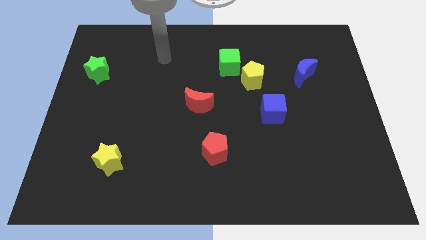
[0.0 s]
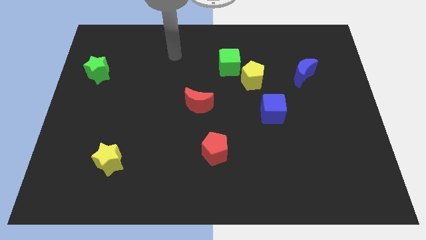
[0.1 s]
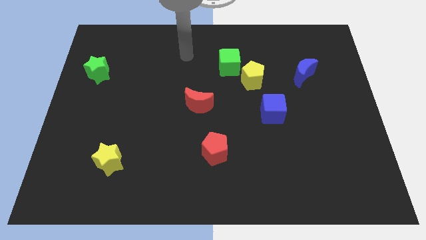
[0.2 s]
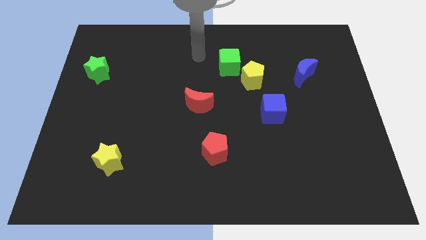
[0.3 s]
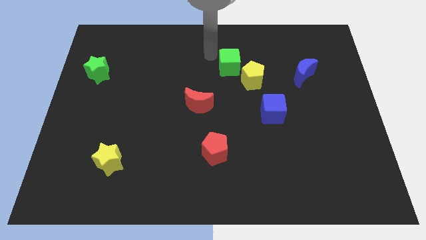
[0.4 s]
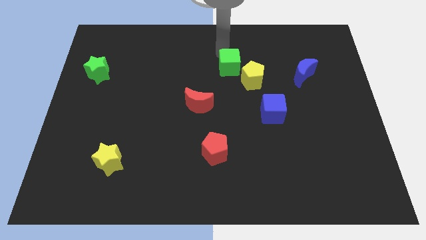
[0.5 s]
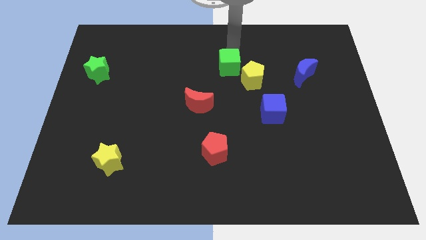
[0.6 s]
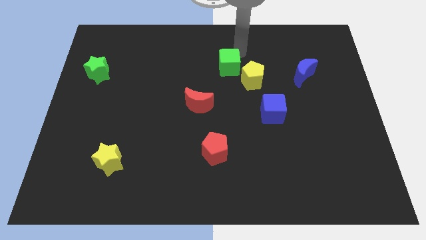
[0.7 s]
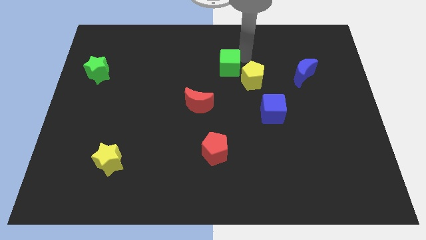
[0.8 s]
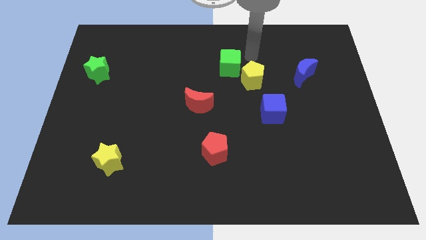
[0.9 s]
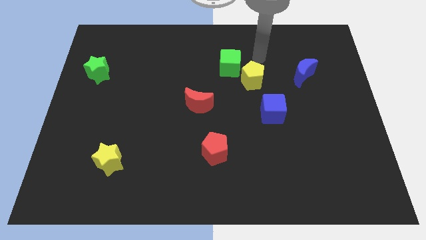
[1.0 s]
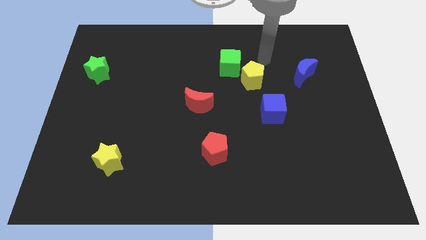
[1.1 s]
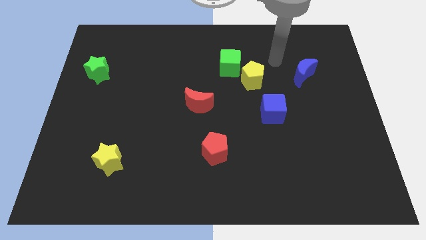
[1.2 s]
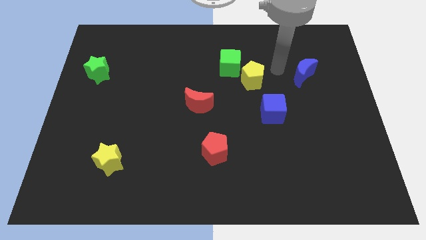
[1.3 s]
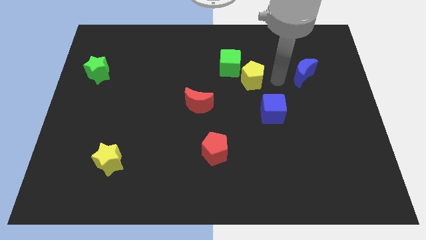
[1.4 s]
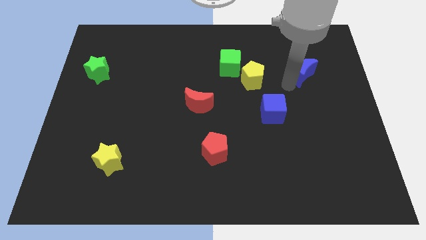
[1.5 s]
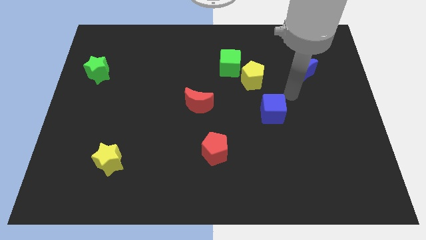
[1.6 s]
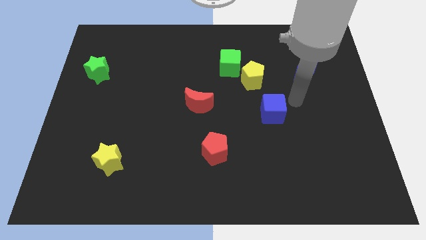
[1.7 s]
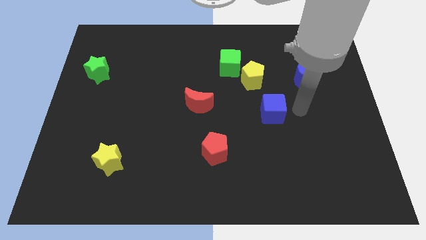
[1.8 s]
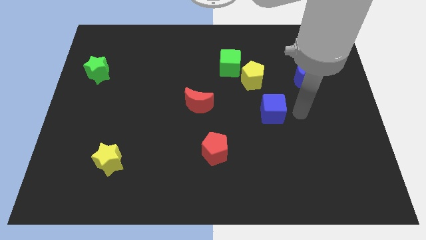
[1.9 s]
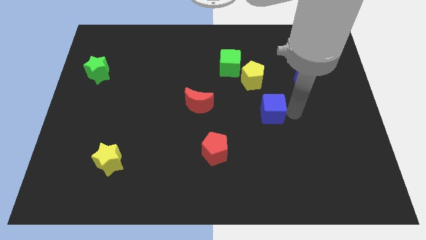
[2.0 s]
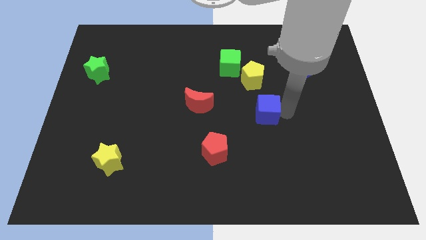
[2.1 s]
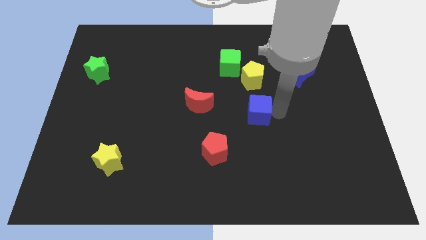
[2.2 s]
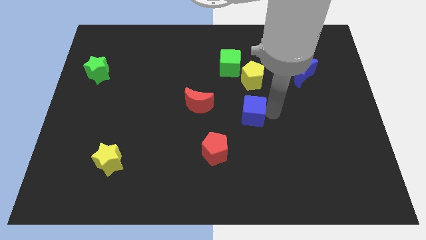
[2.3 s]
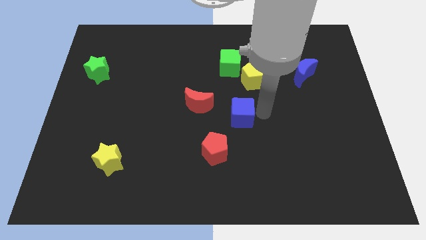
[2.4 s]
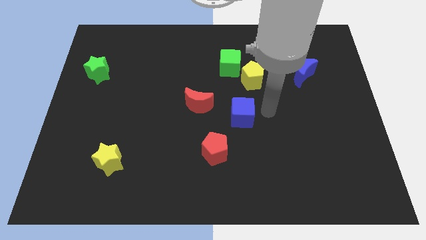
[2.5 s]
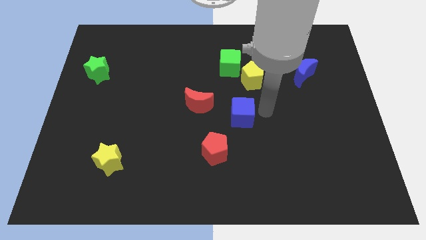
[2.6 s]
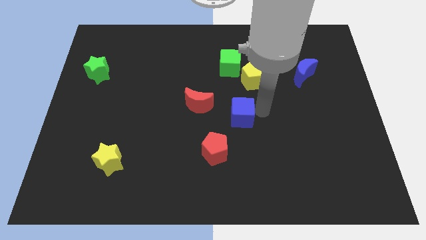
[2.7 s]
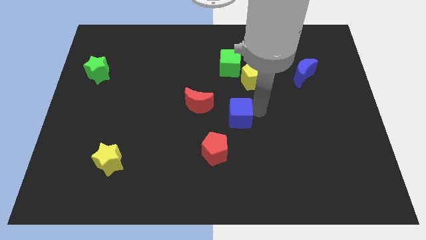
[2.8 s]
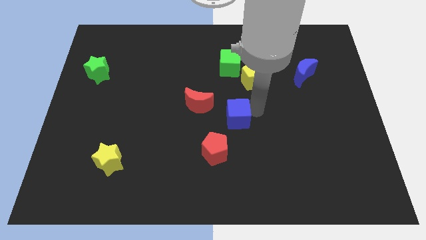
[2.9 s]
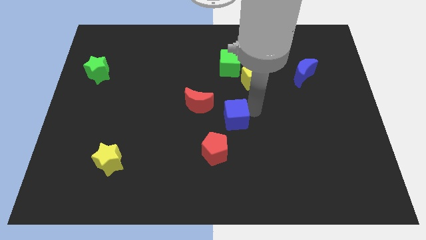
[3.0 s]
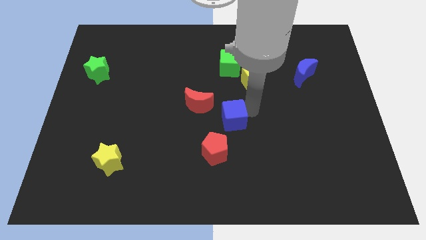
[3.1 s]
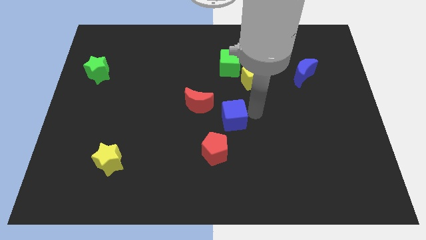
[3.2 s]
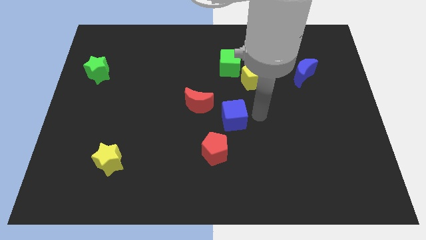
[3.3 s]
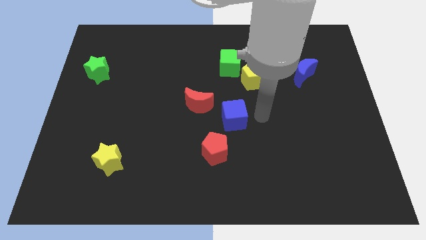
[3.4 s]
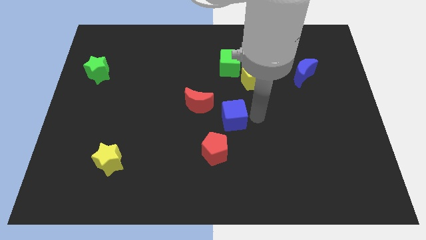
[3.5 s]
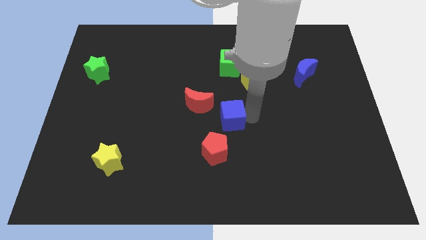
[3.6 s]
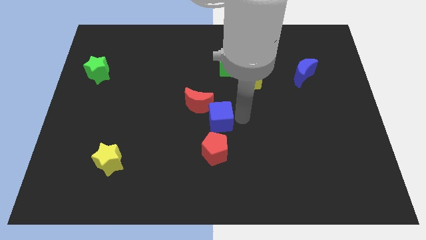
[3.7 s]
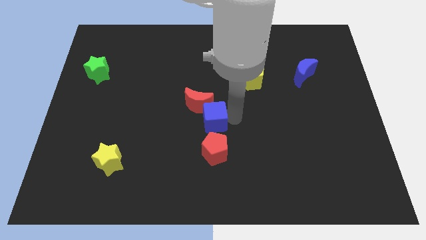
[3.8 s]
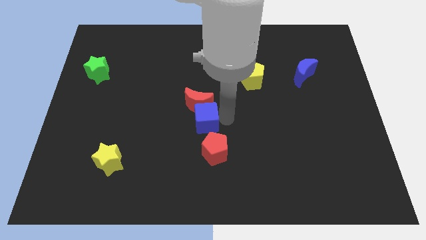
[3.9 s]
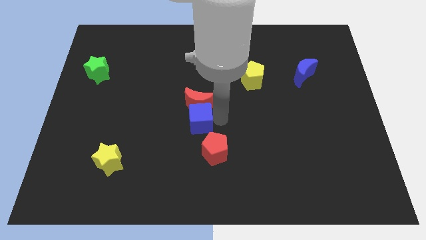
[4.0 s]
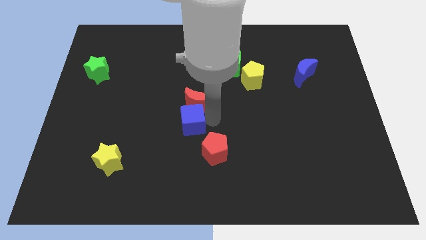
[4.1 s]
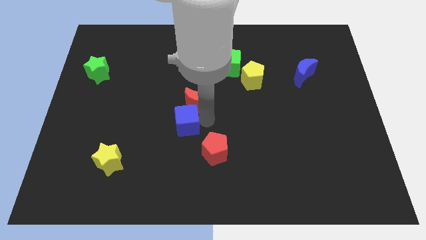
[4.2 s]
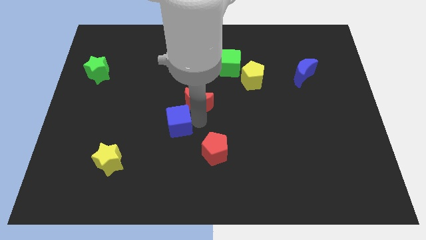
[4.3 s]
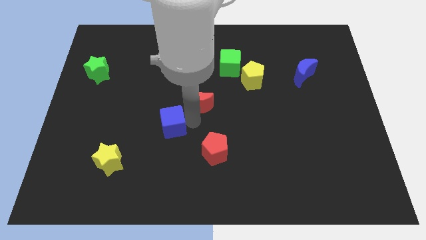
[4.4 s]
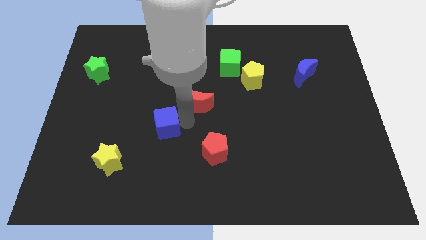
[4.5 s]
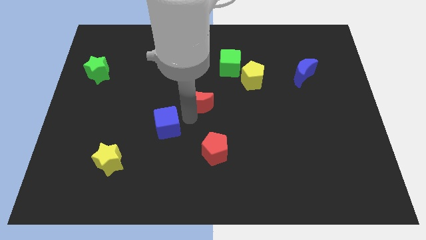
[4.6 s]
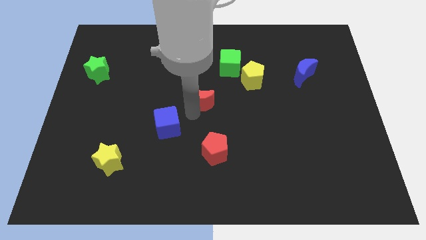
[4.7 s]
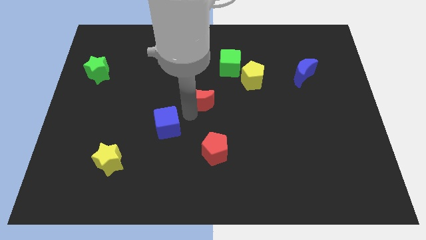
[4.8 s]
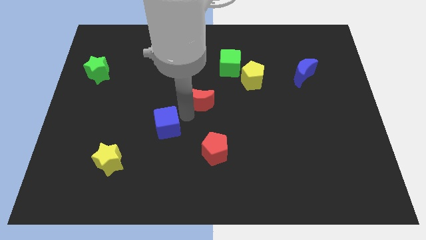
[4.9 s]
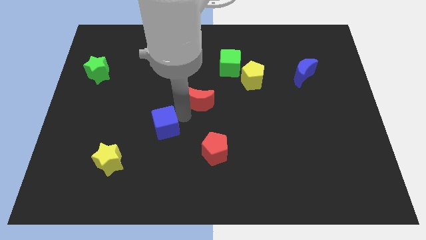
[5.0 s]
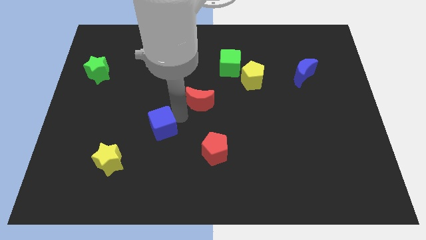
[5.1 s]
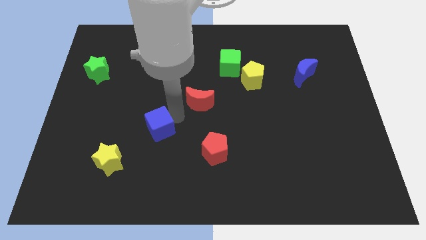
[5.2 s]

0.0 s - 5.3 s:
put the blue cube to the top right of the yellow star

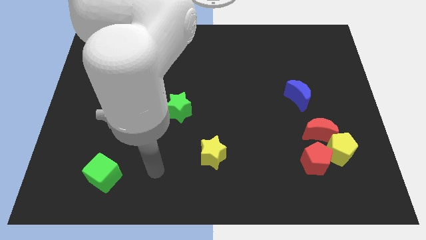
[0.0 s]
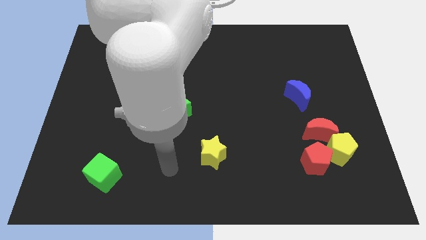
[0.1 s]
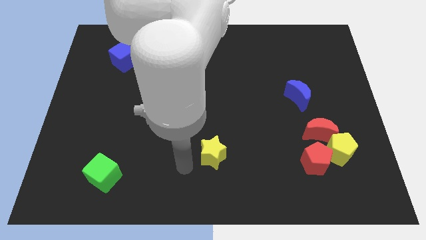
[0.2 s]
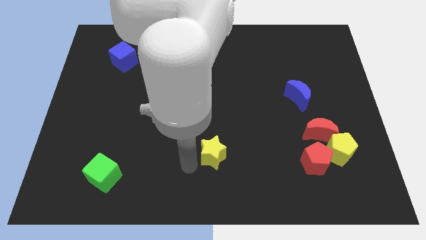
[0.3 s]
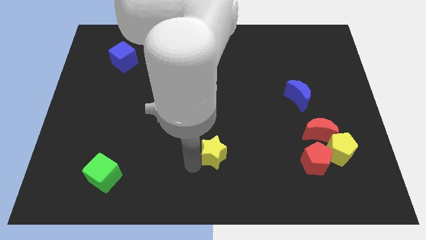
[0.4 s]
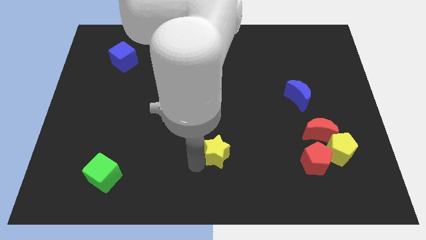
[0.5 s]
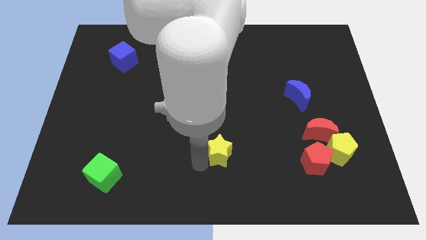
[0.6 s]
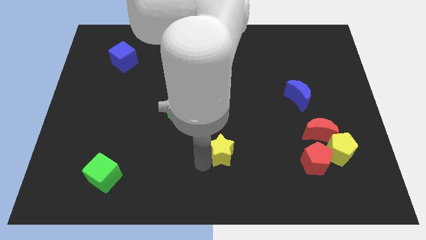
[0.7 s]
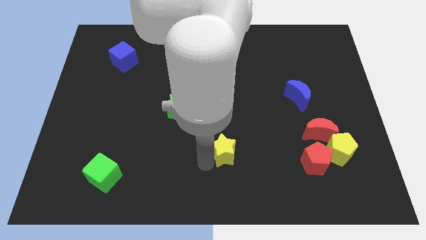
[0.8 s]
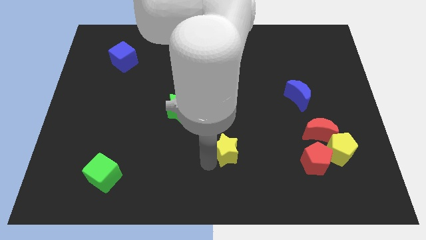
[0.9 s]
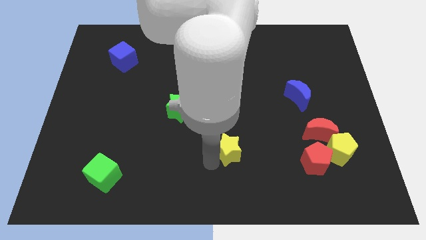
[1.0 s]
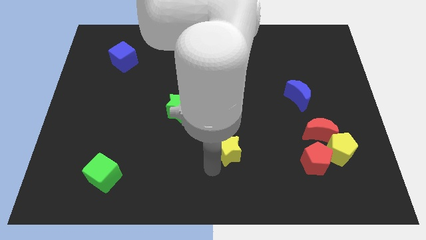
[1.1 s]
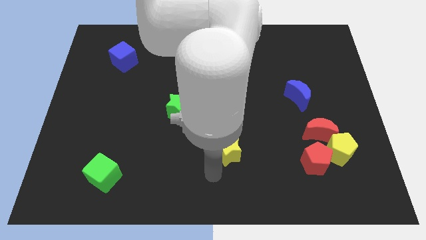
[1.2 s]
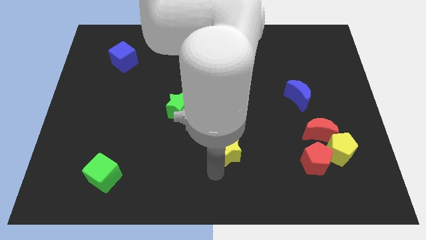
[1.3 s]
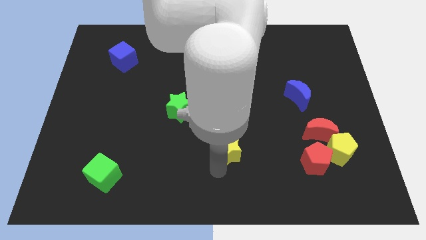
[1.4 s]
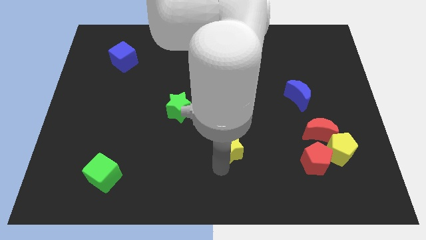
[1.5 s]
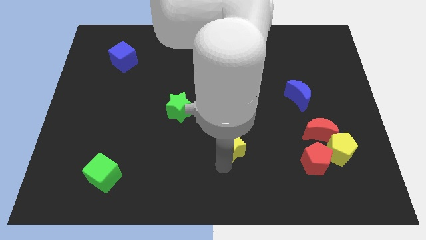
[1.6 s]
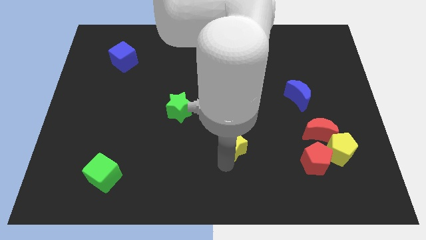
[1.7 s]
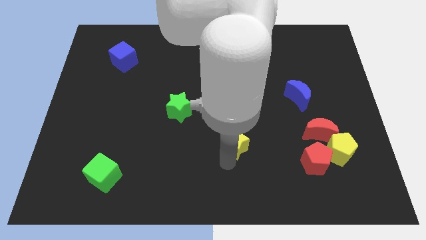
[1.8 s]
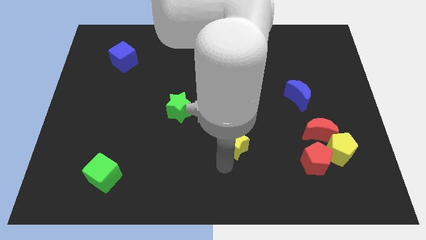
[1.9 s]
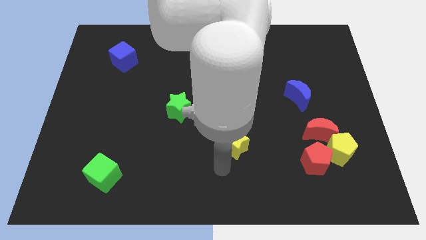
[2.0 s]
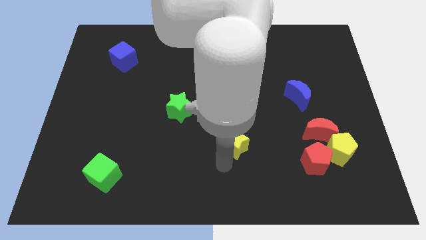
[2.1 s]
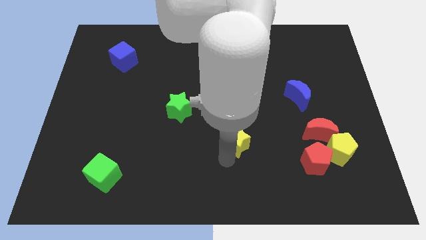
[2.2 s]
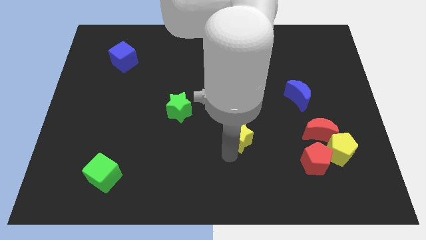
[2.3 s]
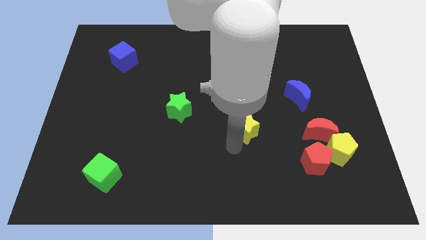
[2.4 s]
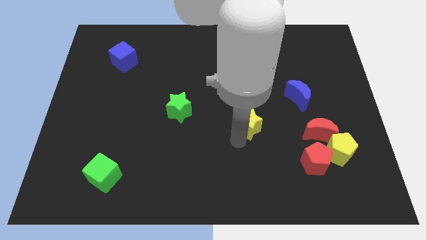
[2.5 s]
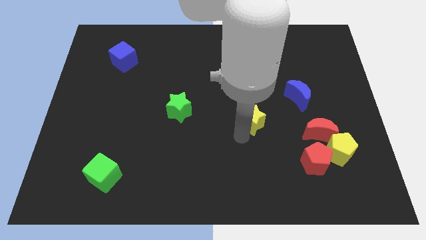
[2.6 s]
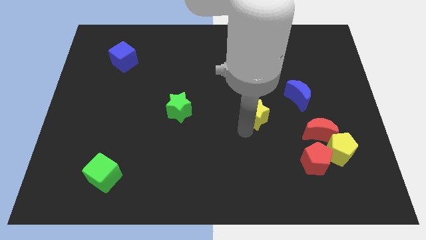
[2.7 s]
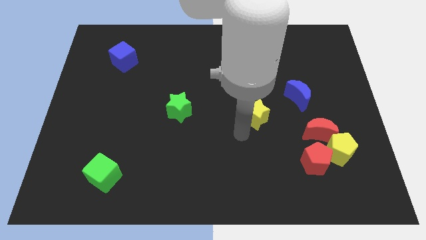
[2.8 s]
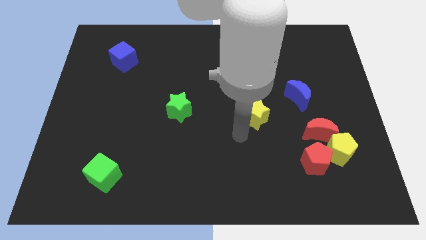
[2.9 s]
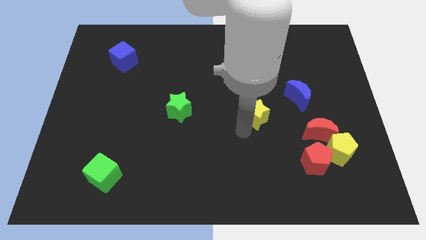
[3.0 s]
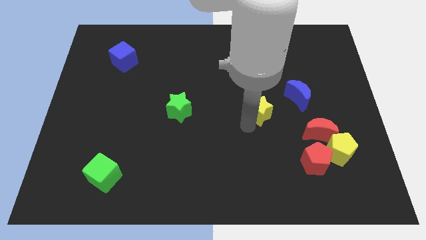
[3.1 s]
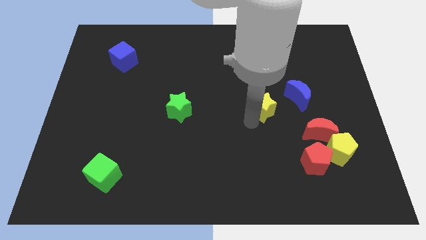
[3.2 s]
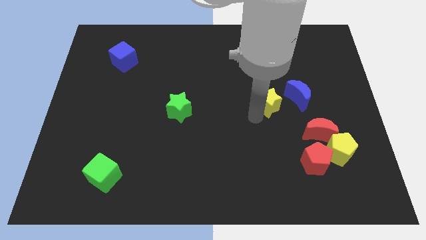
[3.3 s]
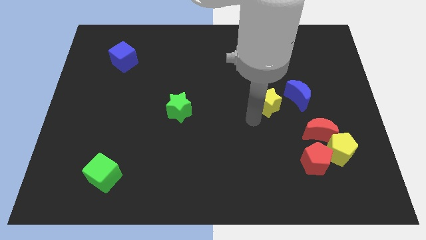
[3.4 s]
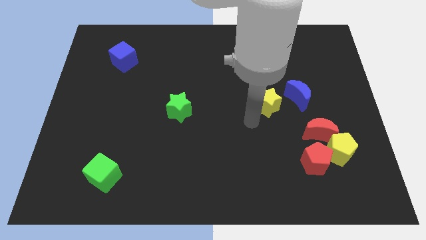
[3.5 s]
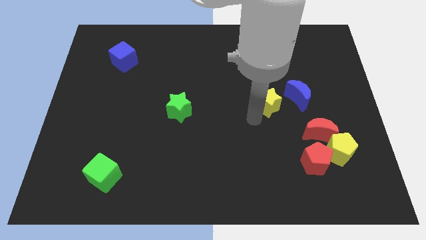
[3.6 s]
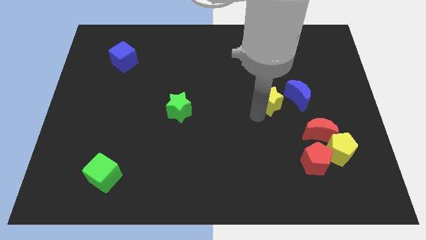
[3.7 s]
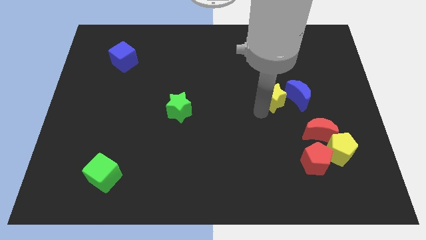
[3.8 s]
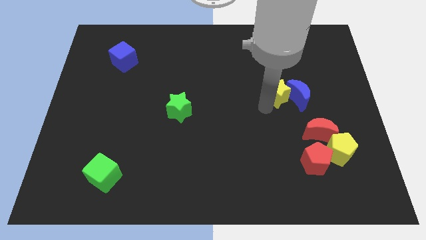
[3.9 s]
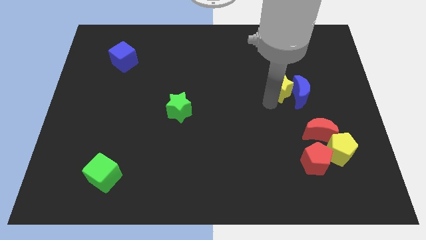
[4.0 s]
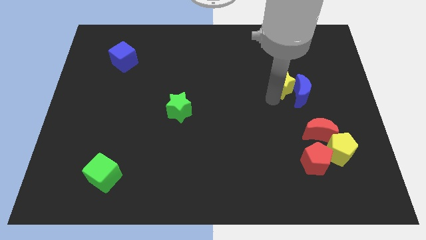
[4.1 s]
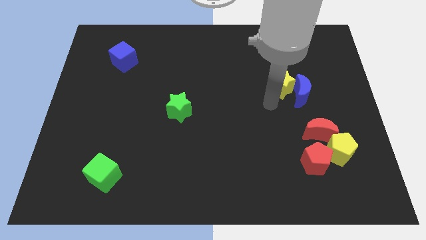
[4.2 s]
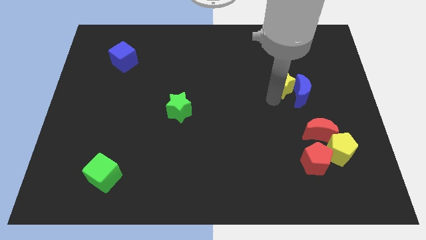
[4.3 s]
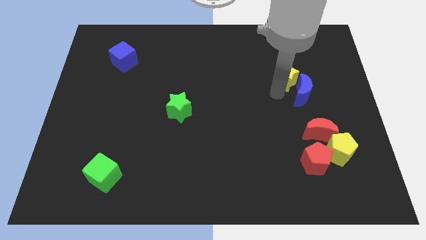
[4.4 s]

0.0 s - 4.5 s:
slide the yellow star to the top of the blue moon
